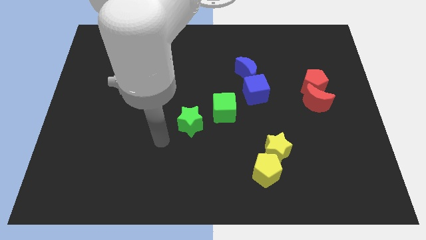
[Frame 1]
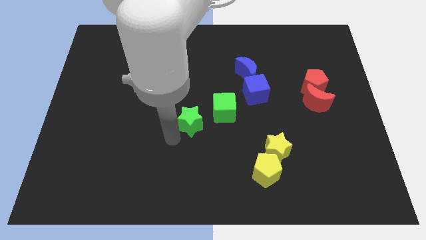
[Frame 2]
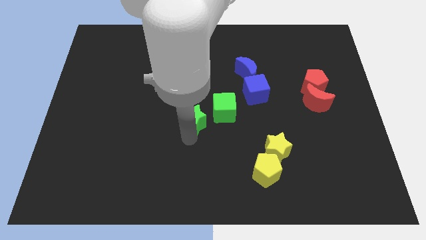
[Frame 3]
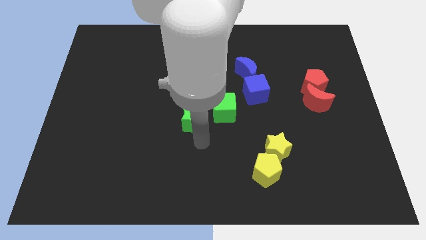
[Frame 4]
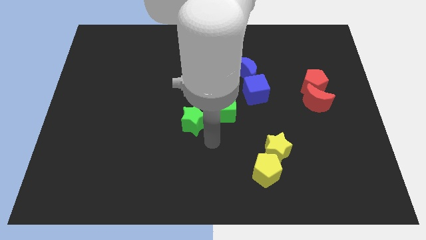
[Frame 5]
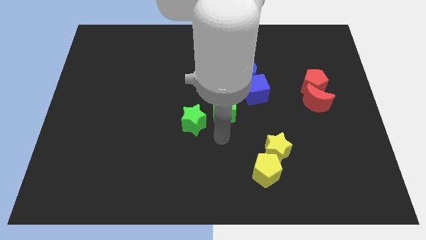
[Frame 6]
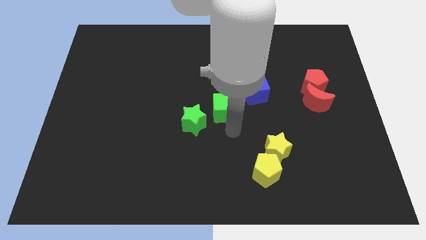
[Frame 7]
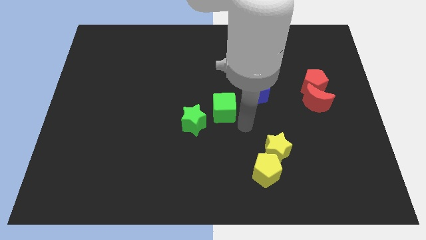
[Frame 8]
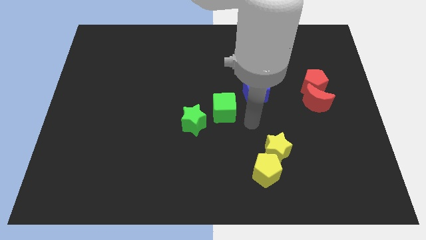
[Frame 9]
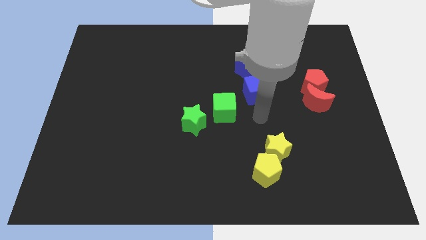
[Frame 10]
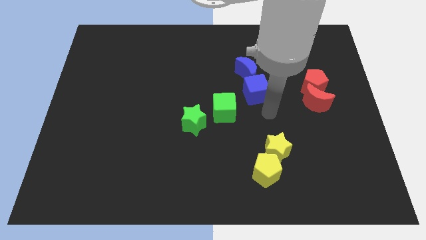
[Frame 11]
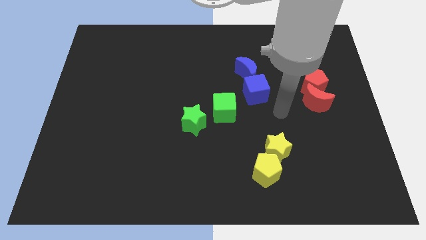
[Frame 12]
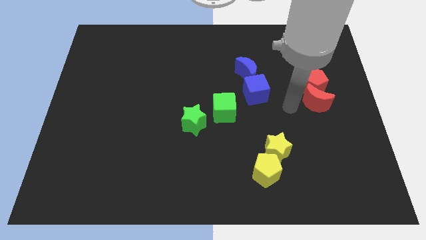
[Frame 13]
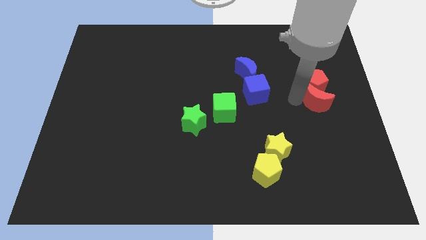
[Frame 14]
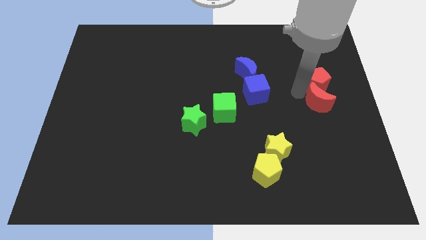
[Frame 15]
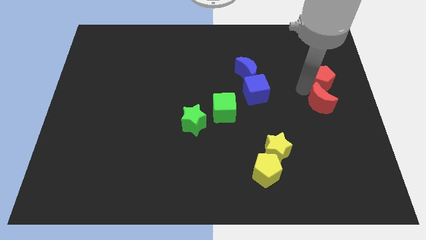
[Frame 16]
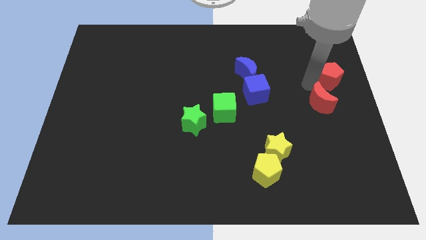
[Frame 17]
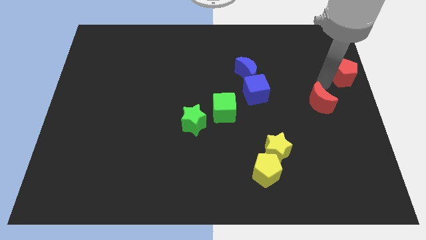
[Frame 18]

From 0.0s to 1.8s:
pull the red moon apart from the red pentagon

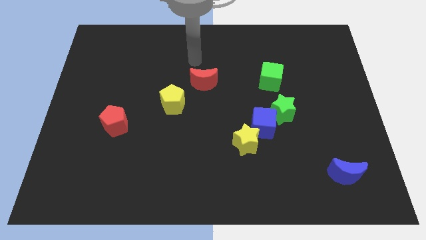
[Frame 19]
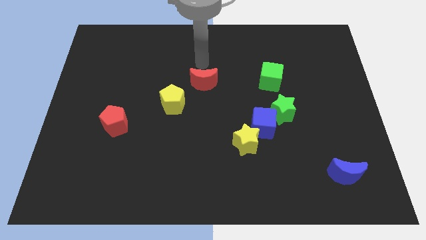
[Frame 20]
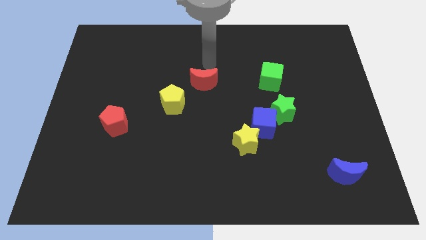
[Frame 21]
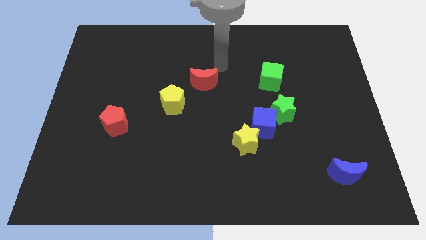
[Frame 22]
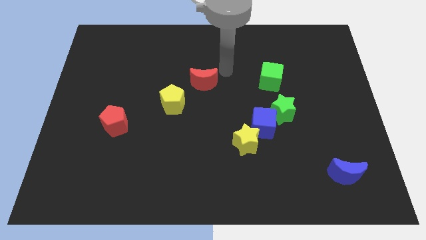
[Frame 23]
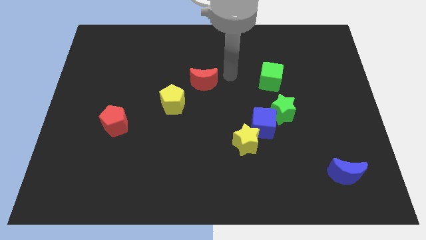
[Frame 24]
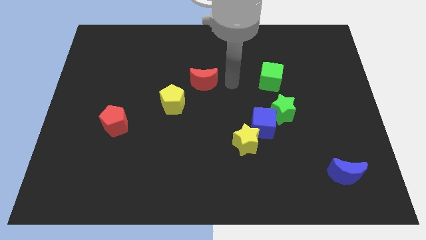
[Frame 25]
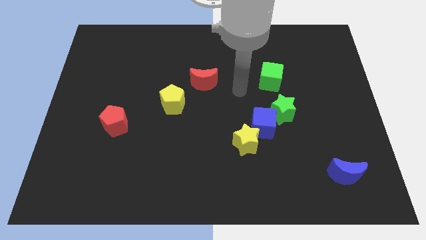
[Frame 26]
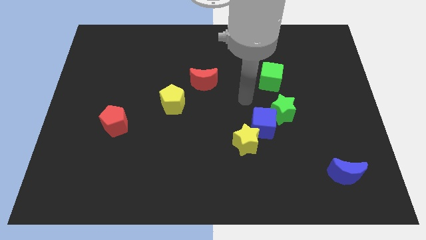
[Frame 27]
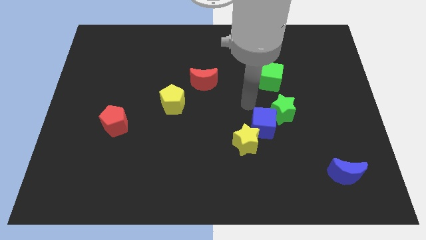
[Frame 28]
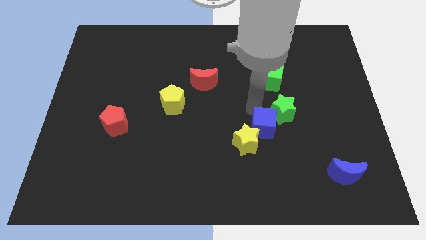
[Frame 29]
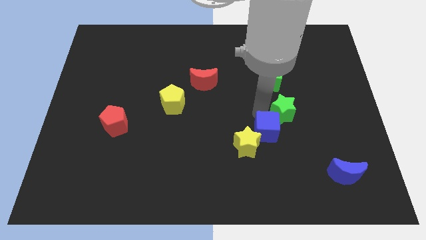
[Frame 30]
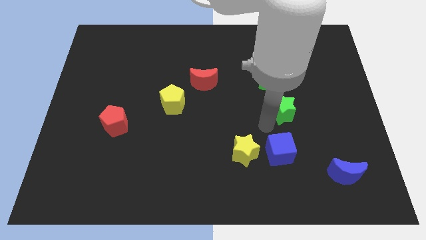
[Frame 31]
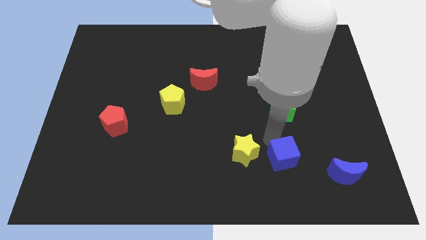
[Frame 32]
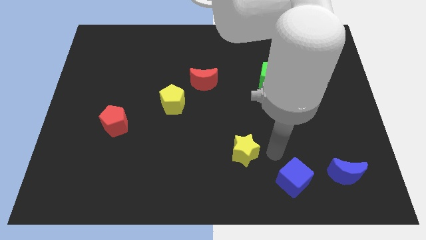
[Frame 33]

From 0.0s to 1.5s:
separate the yellow star from the blue cube

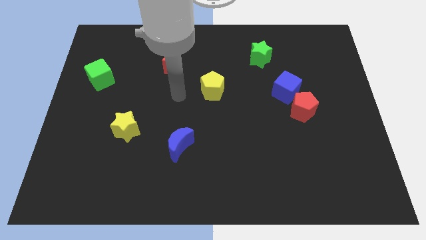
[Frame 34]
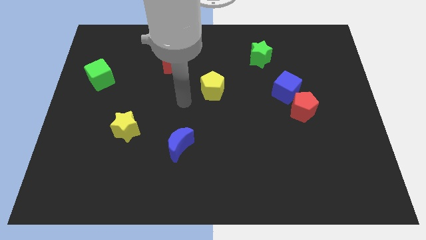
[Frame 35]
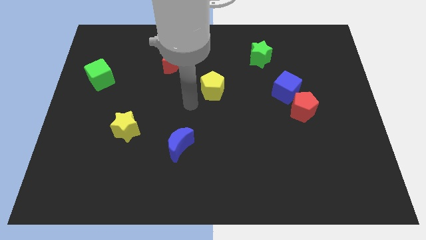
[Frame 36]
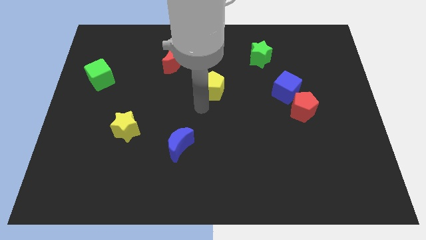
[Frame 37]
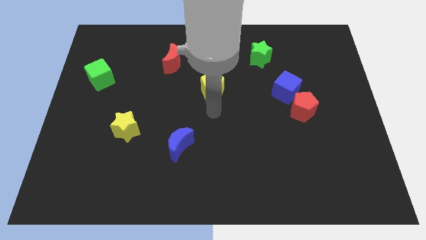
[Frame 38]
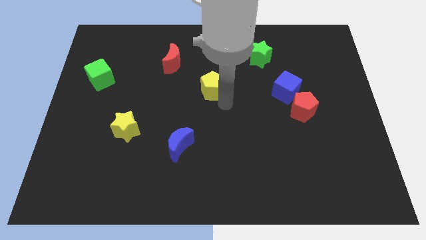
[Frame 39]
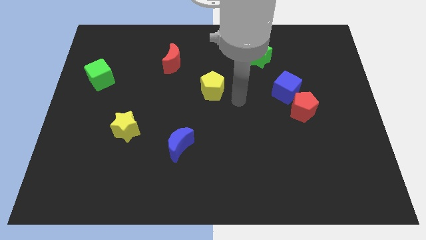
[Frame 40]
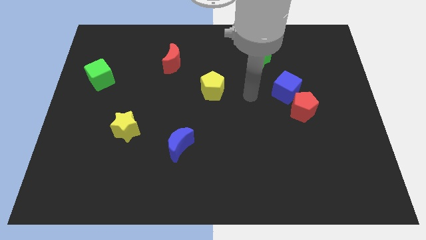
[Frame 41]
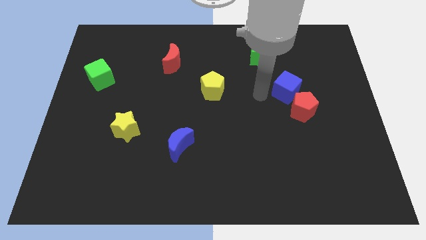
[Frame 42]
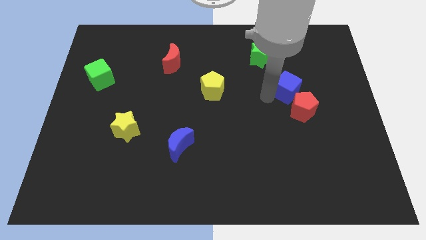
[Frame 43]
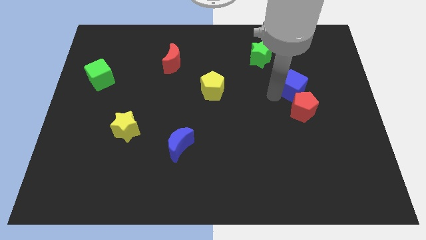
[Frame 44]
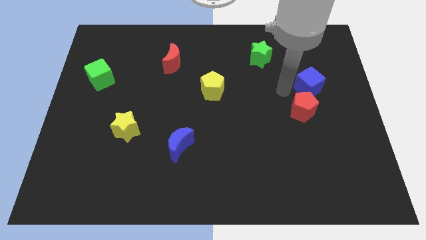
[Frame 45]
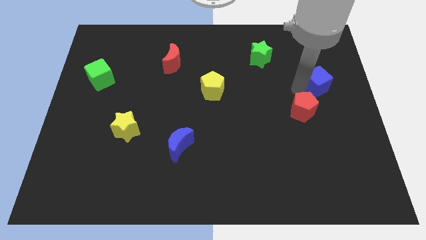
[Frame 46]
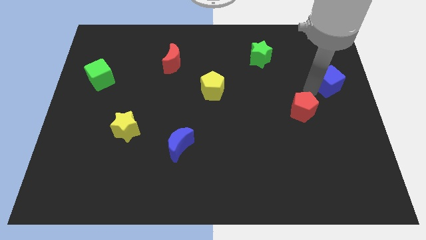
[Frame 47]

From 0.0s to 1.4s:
move the red pentagon away from the blue cube

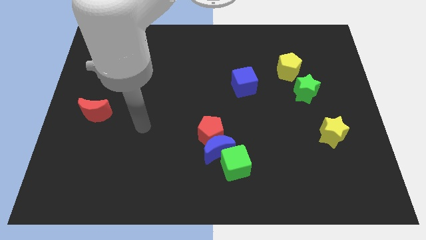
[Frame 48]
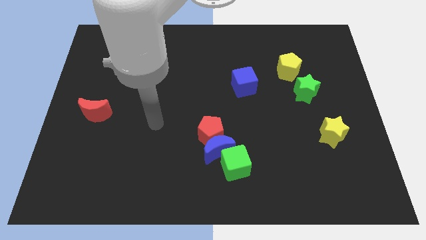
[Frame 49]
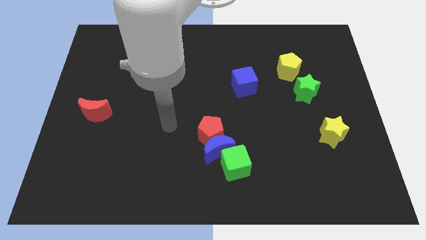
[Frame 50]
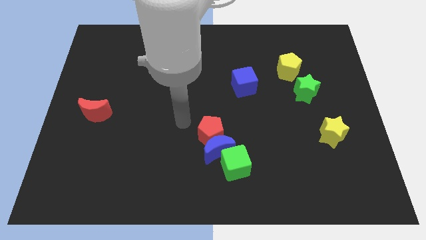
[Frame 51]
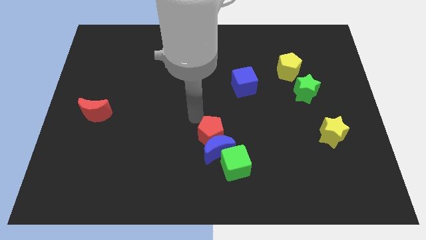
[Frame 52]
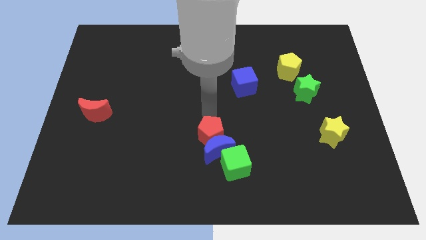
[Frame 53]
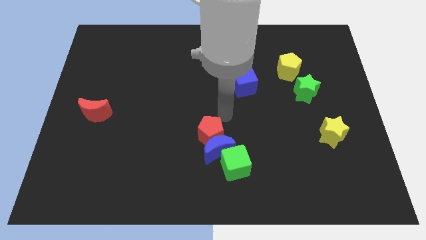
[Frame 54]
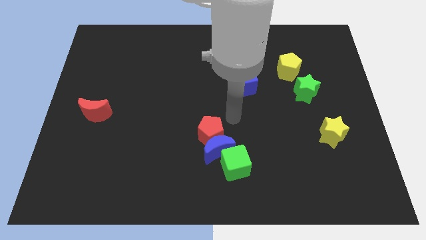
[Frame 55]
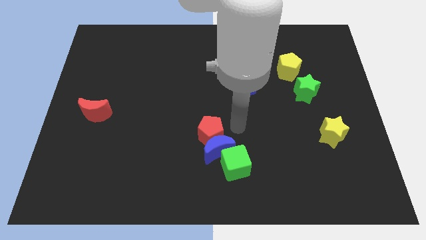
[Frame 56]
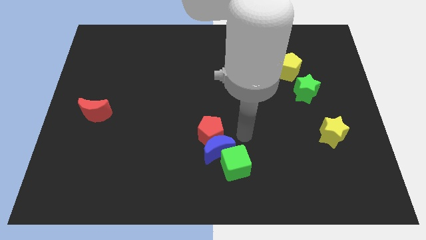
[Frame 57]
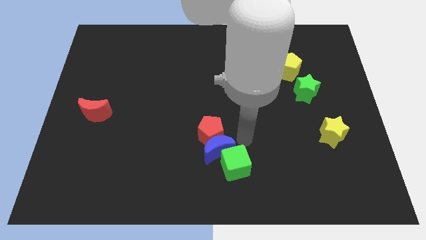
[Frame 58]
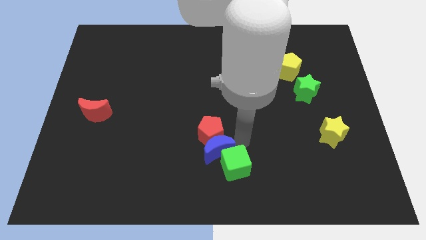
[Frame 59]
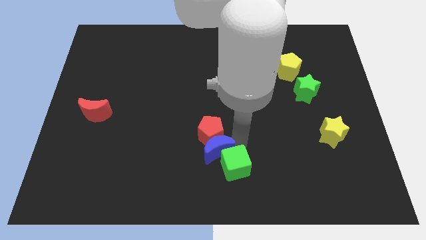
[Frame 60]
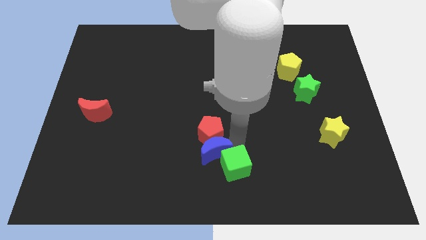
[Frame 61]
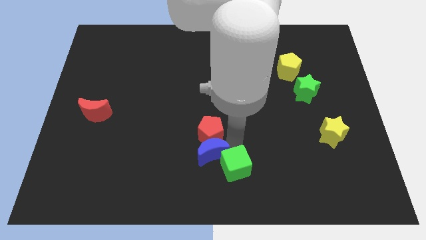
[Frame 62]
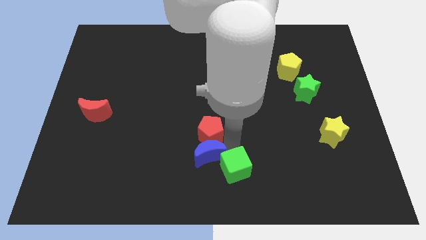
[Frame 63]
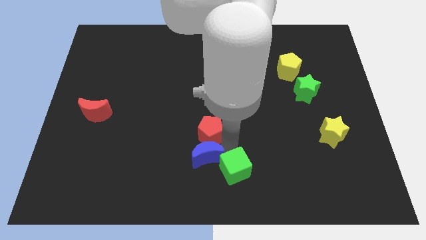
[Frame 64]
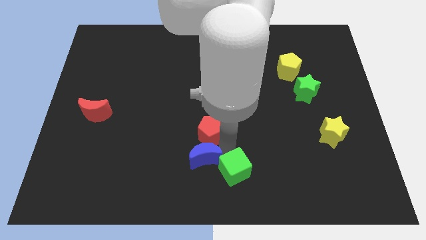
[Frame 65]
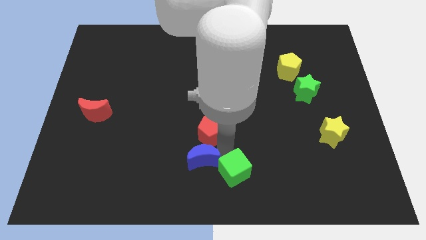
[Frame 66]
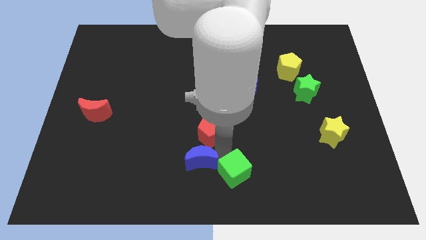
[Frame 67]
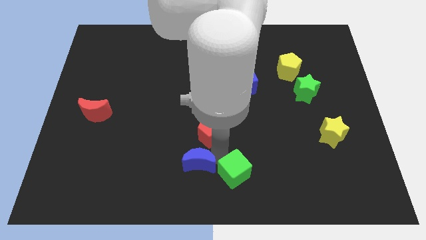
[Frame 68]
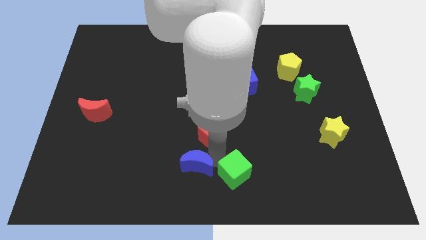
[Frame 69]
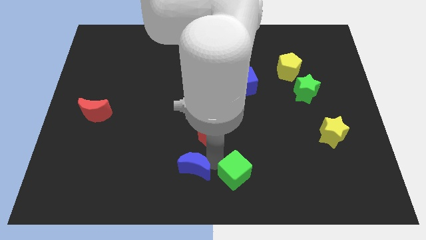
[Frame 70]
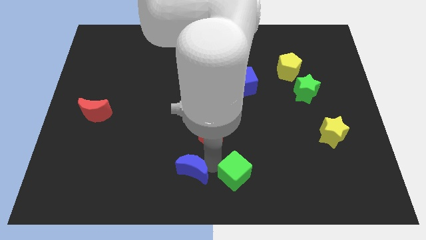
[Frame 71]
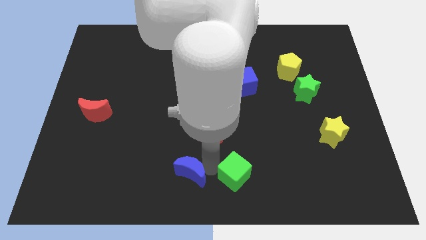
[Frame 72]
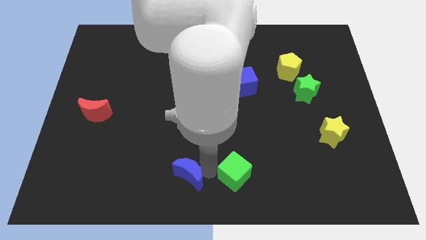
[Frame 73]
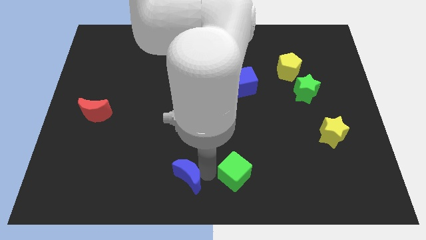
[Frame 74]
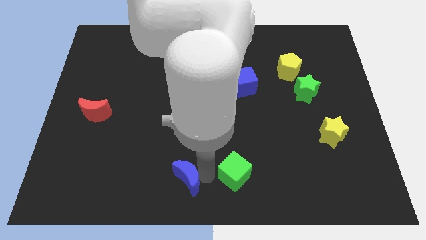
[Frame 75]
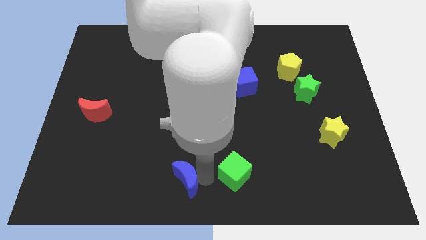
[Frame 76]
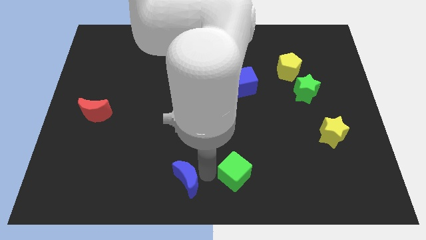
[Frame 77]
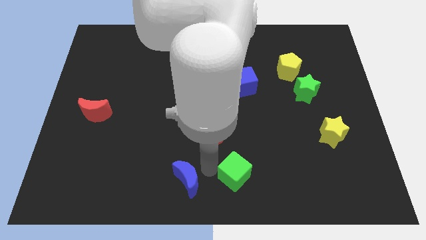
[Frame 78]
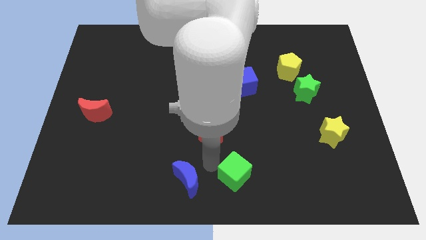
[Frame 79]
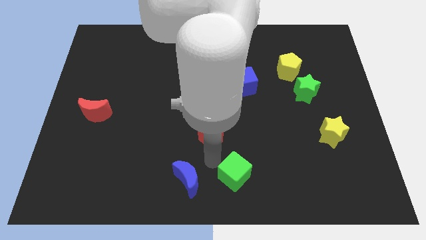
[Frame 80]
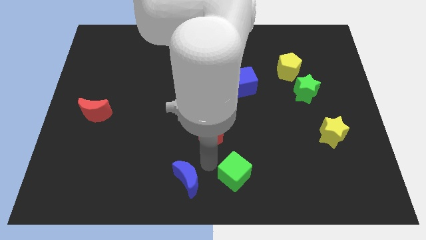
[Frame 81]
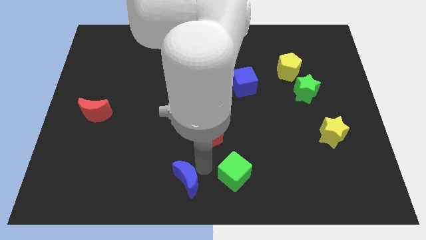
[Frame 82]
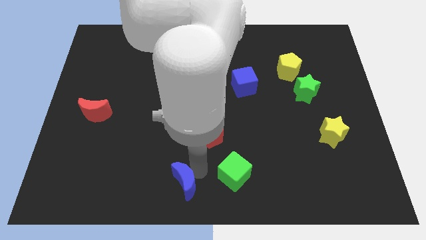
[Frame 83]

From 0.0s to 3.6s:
separate the blue moon from the red pentagon and green cube

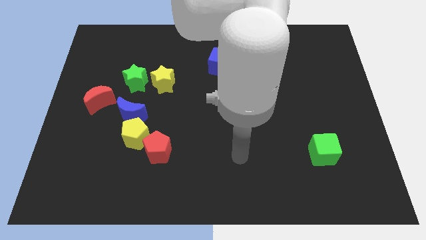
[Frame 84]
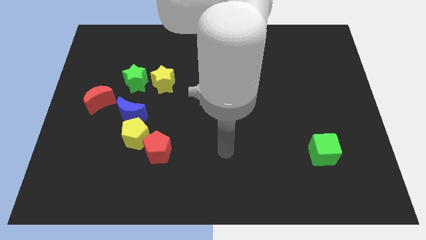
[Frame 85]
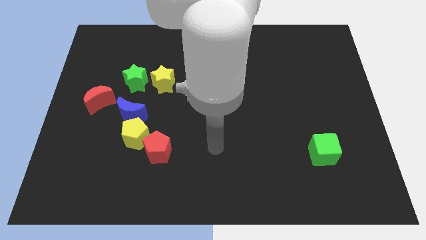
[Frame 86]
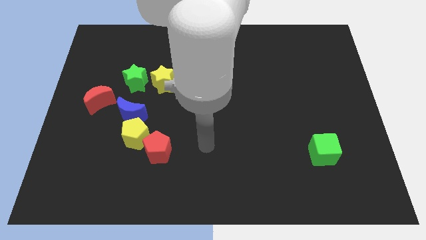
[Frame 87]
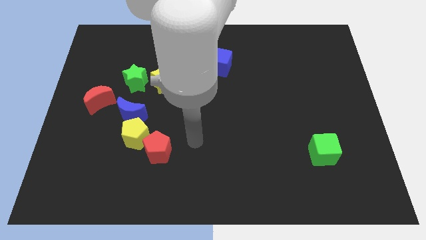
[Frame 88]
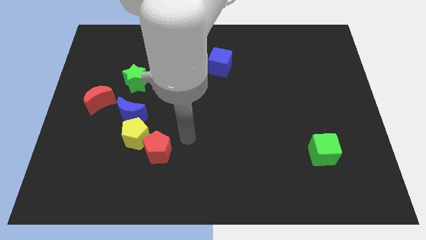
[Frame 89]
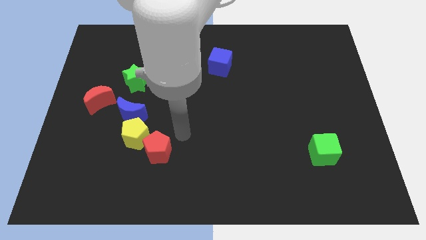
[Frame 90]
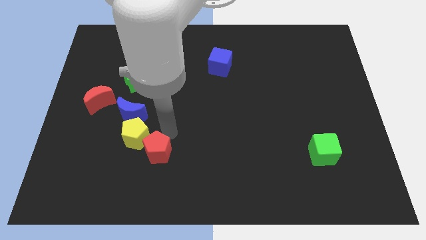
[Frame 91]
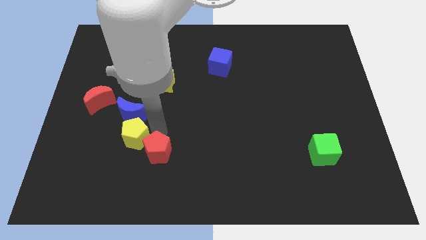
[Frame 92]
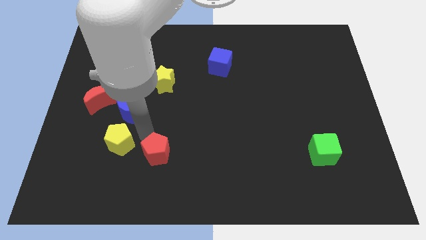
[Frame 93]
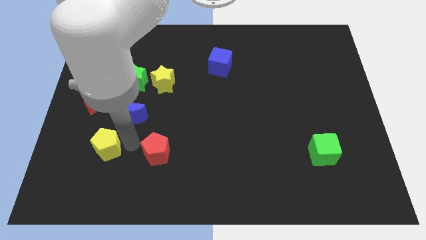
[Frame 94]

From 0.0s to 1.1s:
pull the red pentagon apart from the yellow pentagon
